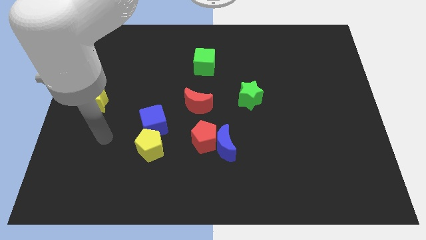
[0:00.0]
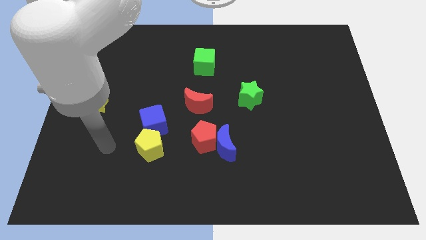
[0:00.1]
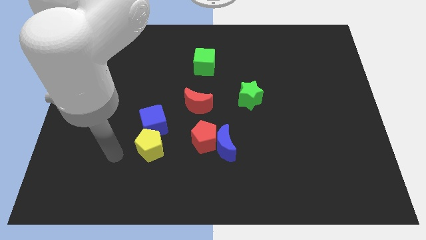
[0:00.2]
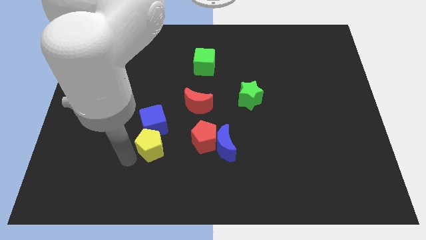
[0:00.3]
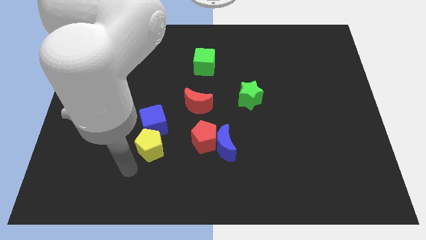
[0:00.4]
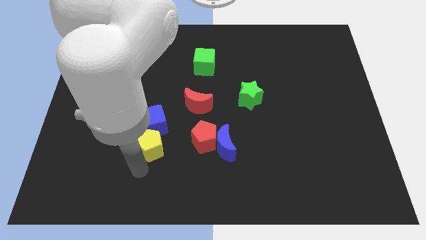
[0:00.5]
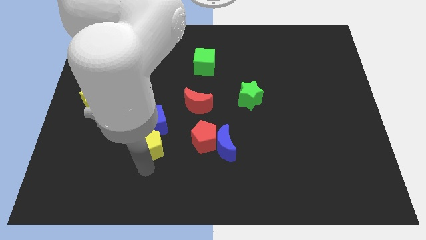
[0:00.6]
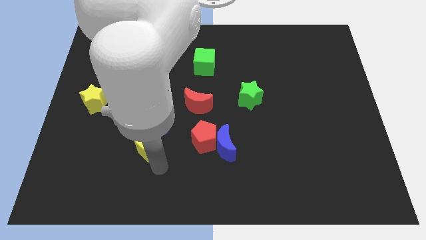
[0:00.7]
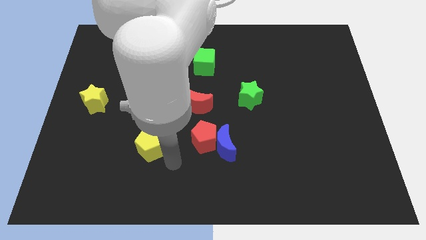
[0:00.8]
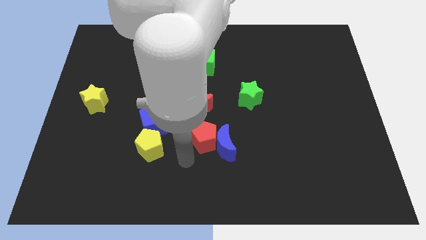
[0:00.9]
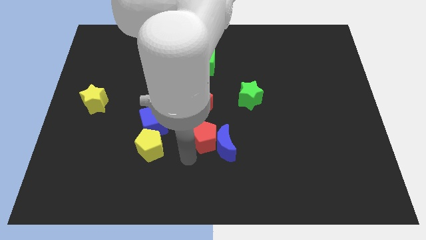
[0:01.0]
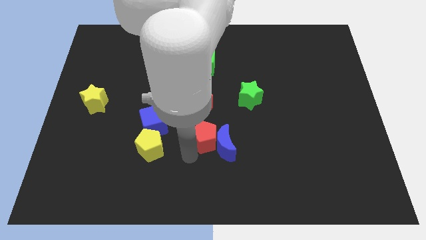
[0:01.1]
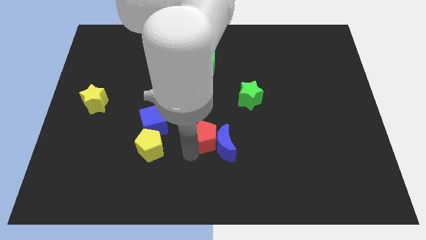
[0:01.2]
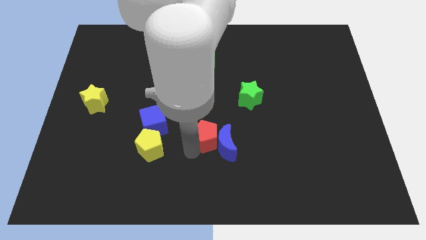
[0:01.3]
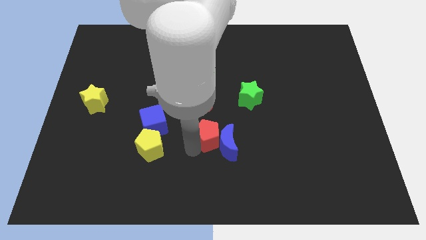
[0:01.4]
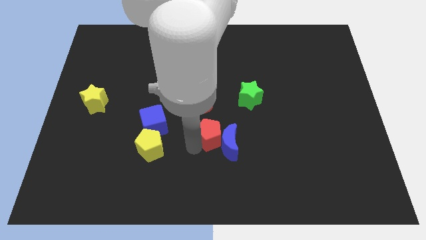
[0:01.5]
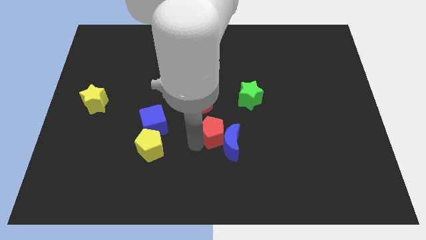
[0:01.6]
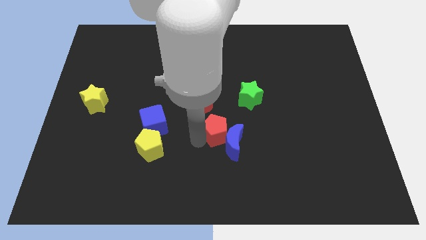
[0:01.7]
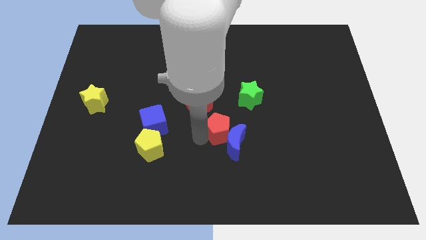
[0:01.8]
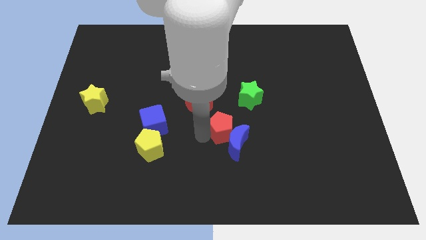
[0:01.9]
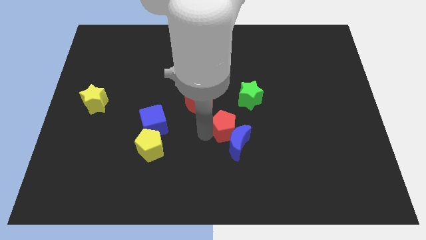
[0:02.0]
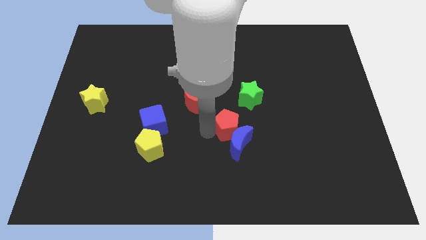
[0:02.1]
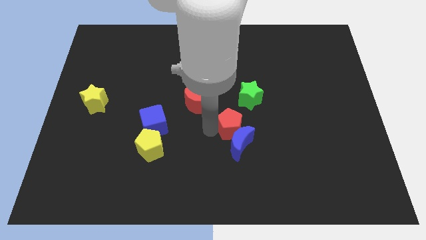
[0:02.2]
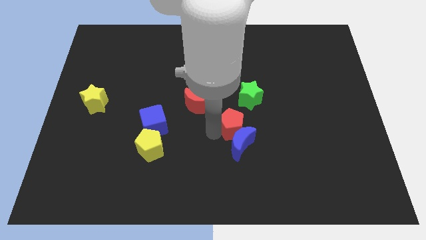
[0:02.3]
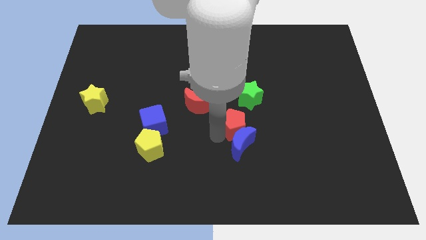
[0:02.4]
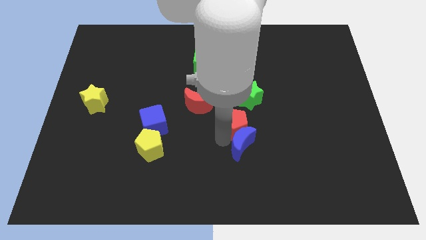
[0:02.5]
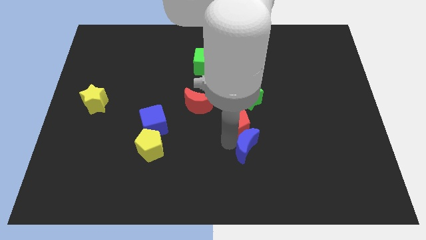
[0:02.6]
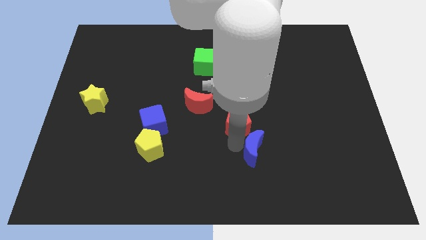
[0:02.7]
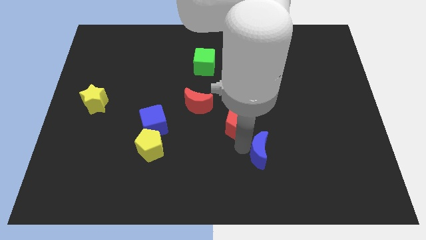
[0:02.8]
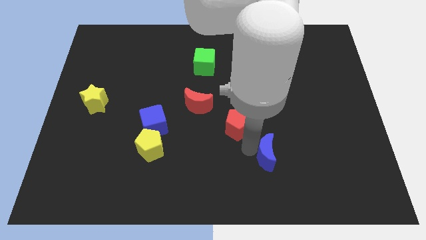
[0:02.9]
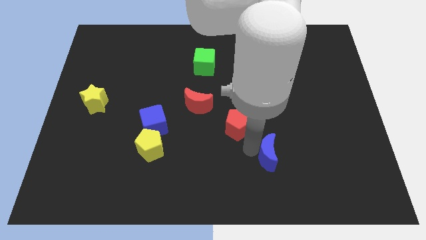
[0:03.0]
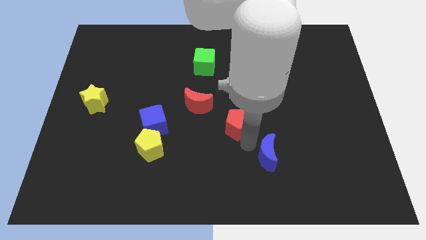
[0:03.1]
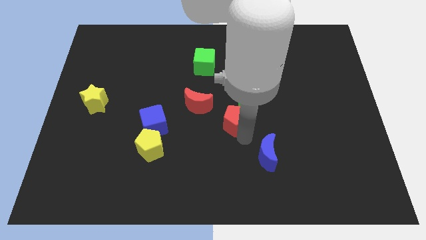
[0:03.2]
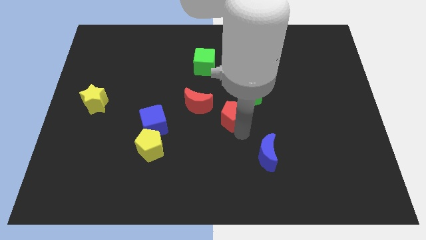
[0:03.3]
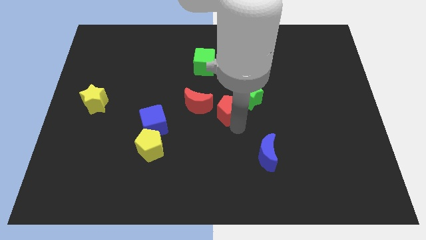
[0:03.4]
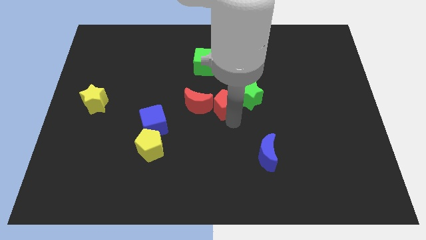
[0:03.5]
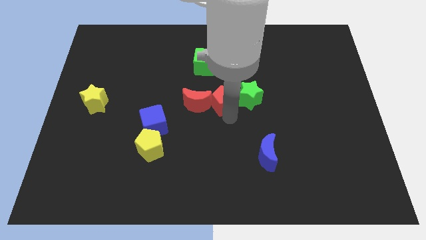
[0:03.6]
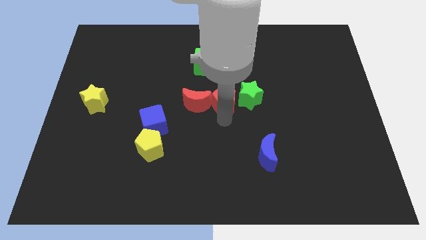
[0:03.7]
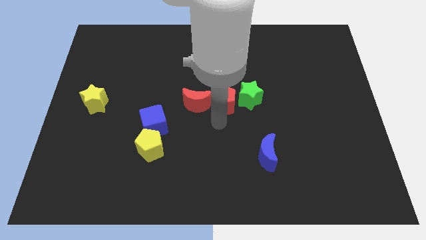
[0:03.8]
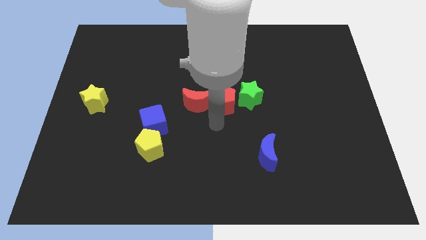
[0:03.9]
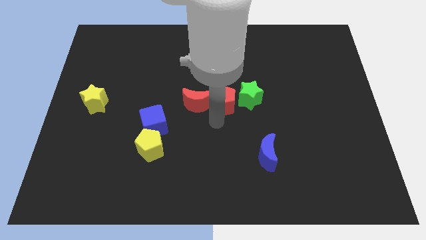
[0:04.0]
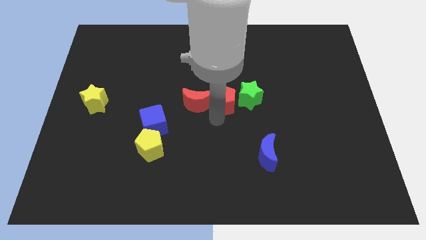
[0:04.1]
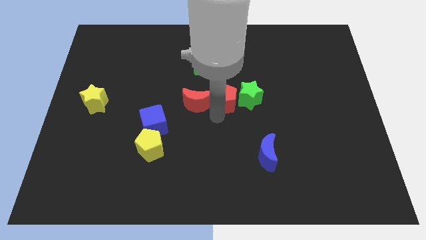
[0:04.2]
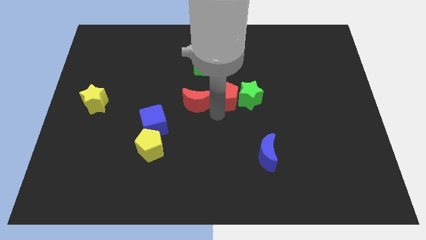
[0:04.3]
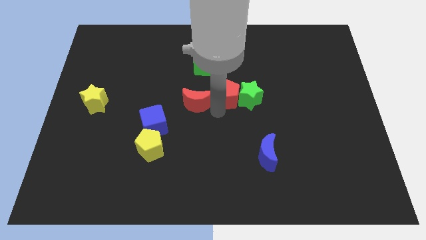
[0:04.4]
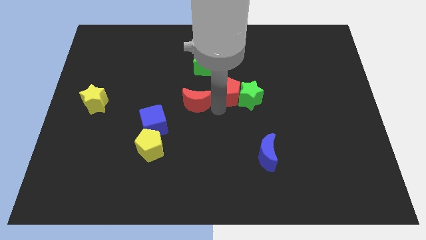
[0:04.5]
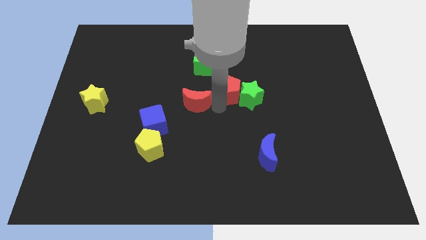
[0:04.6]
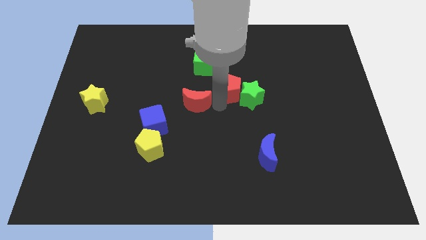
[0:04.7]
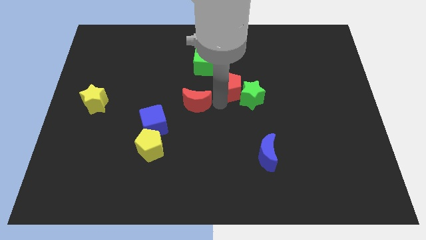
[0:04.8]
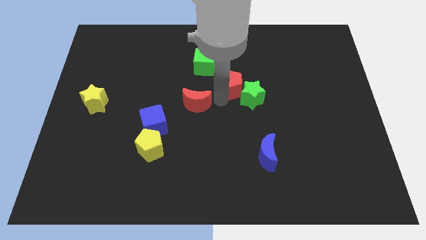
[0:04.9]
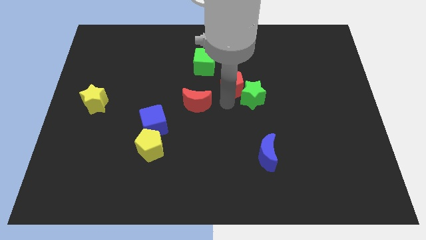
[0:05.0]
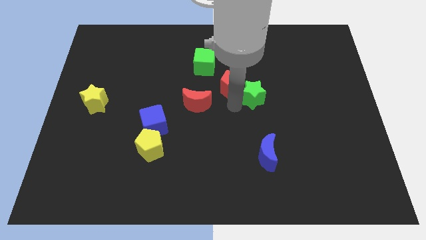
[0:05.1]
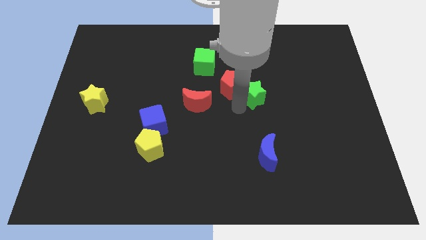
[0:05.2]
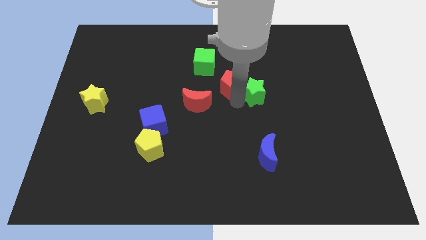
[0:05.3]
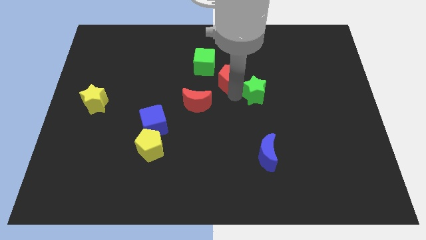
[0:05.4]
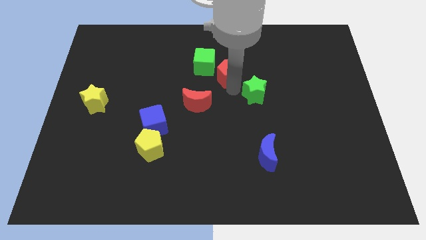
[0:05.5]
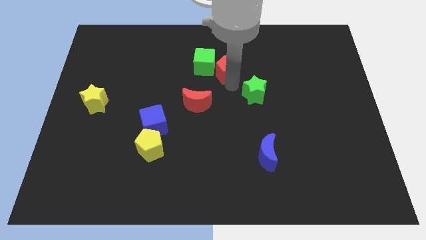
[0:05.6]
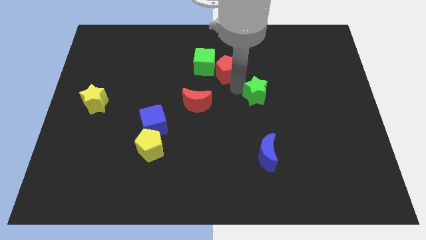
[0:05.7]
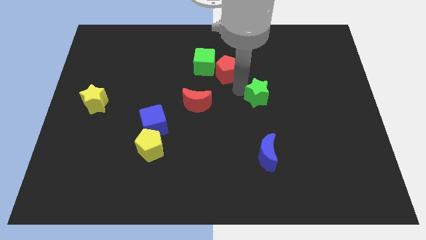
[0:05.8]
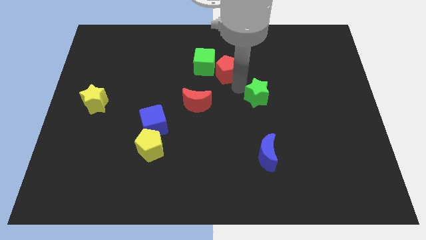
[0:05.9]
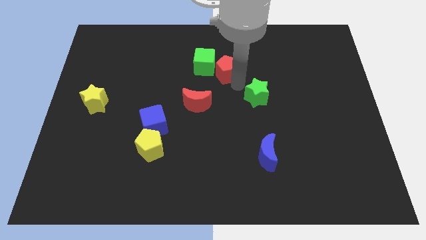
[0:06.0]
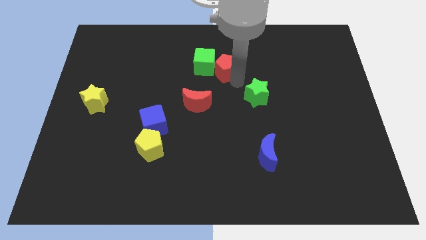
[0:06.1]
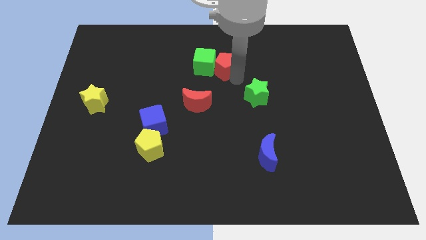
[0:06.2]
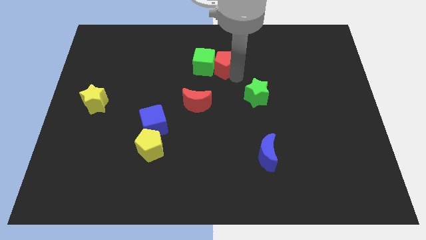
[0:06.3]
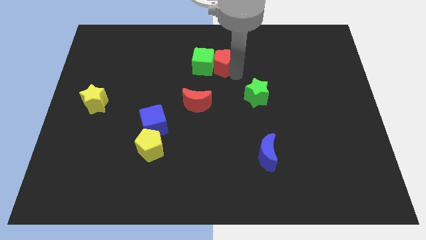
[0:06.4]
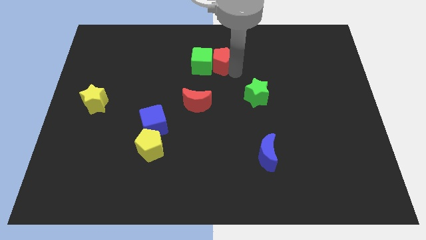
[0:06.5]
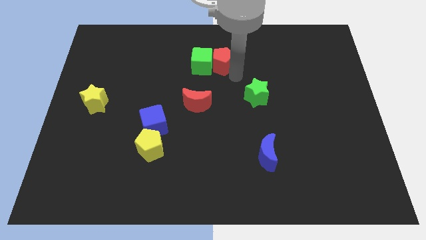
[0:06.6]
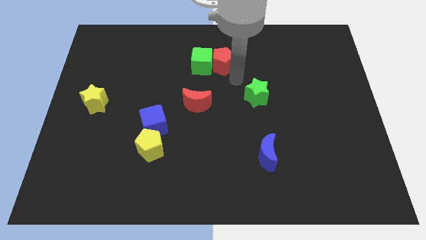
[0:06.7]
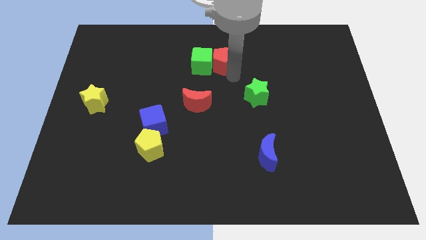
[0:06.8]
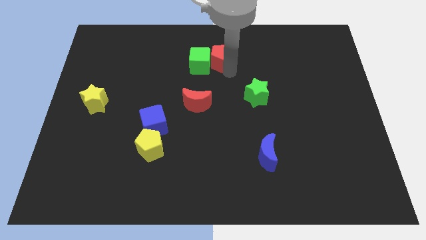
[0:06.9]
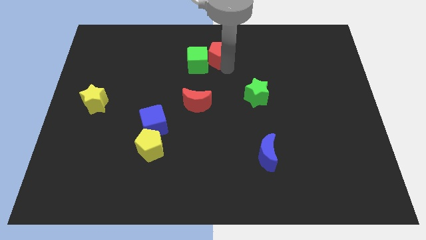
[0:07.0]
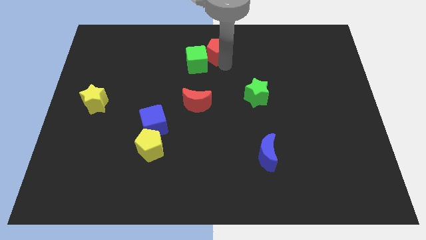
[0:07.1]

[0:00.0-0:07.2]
push the red pentagon to the top

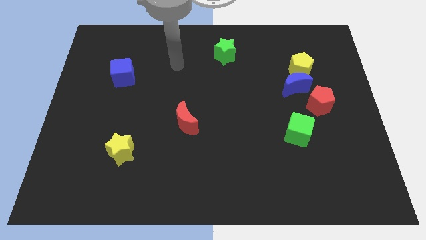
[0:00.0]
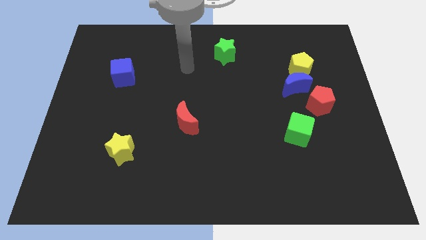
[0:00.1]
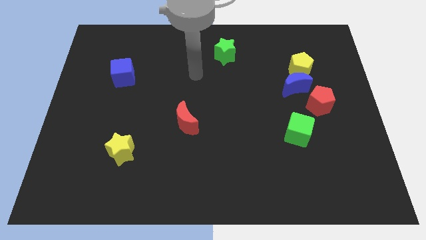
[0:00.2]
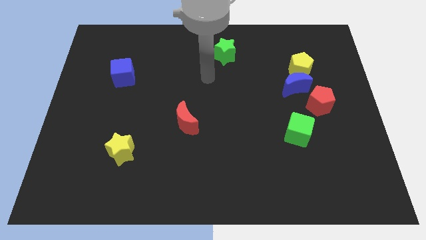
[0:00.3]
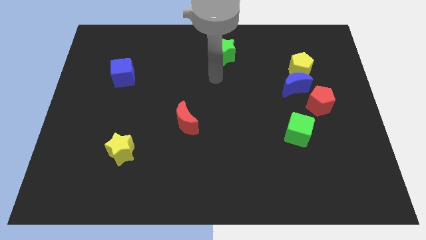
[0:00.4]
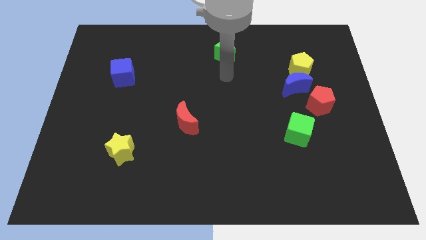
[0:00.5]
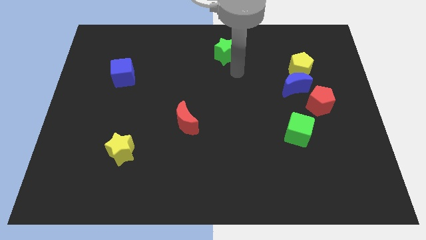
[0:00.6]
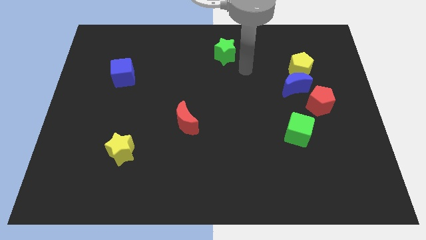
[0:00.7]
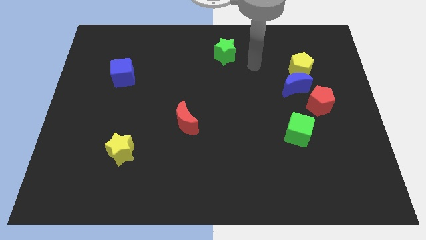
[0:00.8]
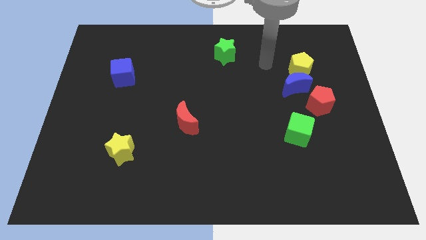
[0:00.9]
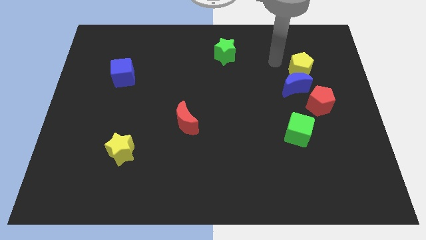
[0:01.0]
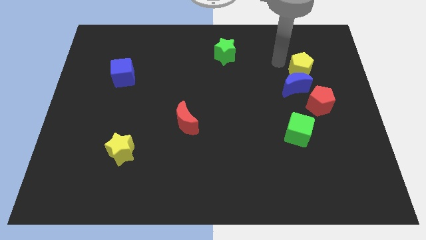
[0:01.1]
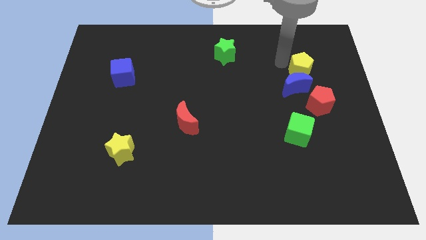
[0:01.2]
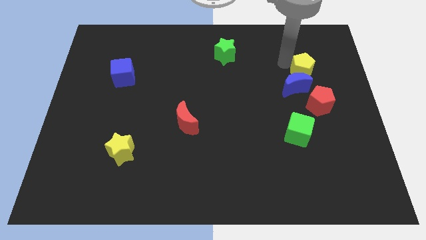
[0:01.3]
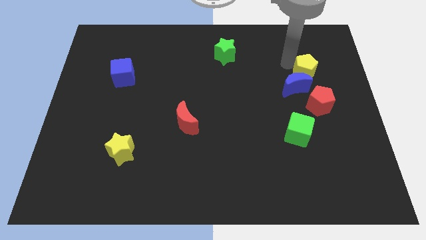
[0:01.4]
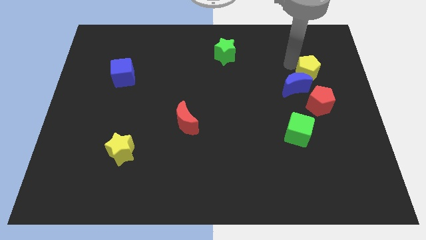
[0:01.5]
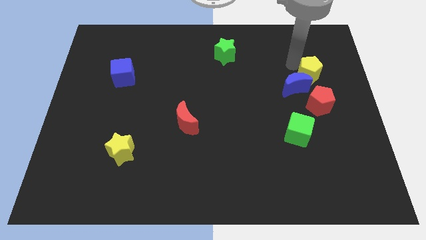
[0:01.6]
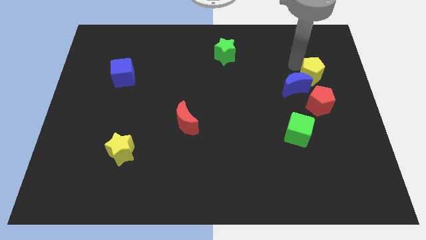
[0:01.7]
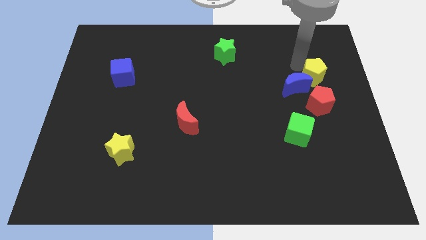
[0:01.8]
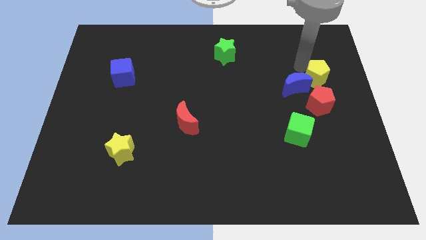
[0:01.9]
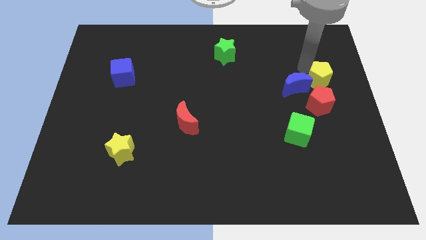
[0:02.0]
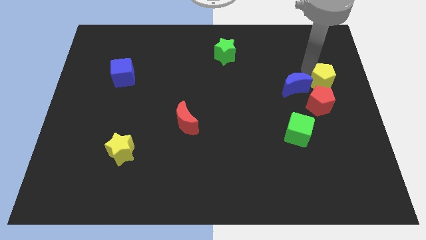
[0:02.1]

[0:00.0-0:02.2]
put the yellow pentagon to the right side of the board
